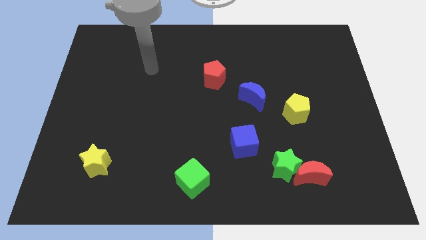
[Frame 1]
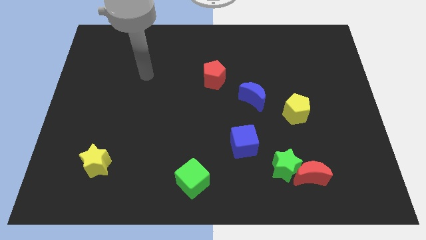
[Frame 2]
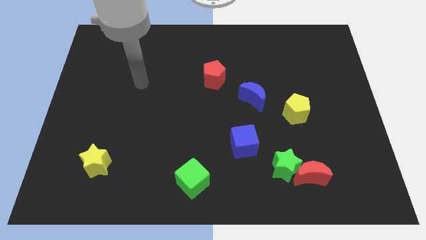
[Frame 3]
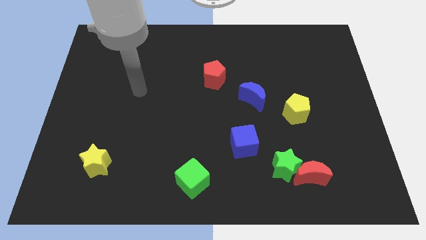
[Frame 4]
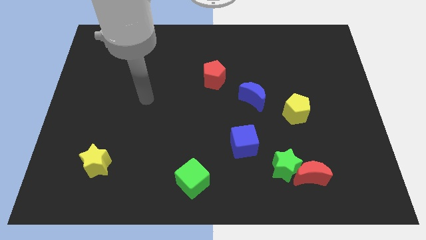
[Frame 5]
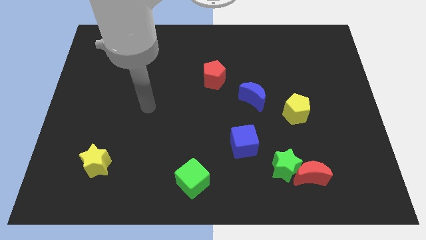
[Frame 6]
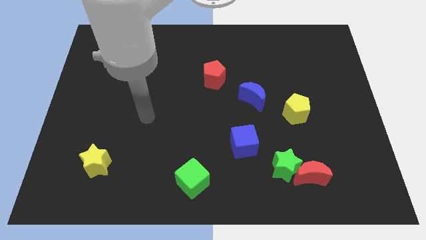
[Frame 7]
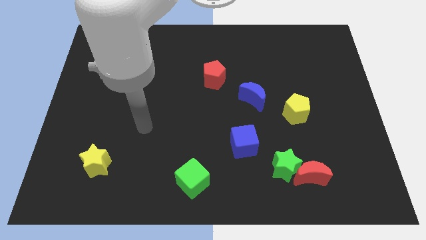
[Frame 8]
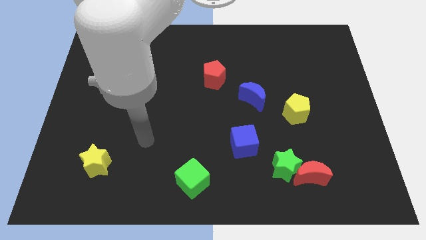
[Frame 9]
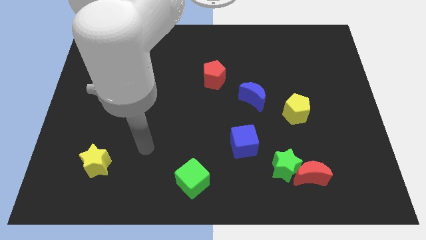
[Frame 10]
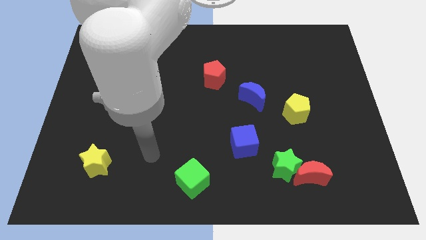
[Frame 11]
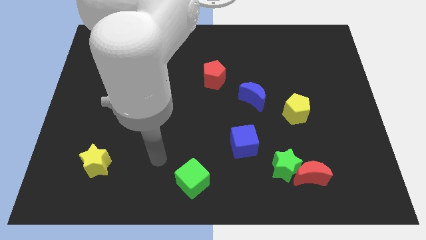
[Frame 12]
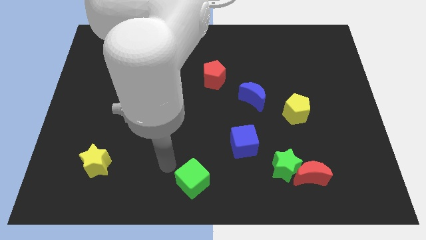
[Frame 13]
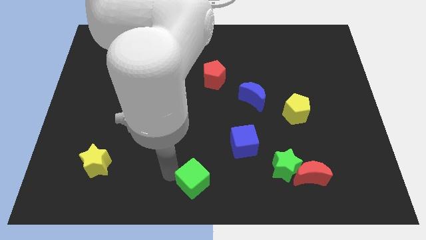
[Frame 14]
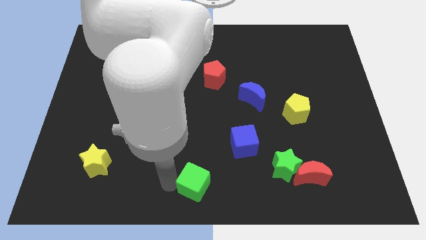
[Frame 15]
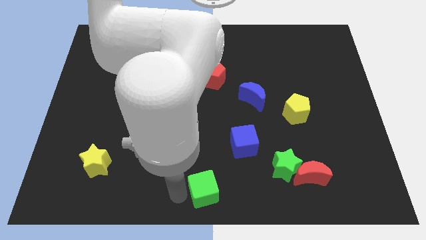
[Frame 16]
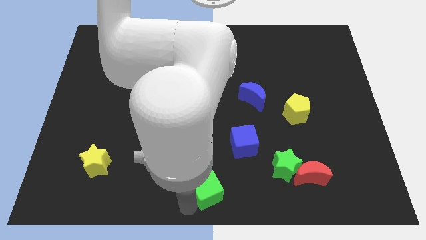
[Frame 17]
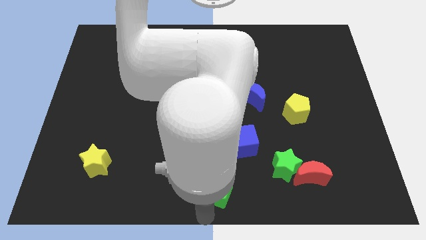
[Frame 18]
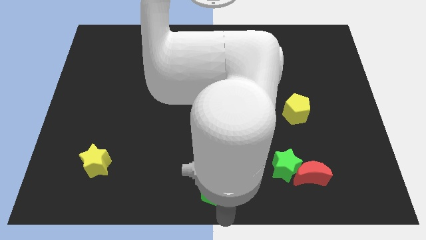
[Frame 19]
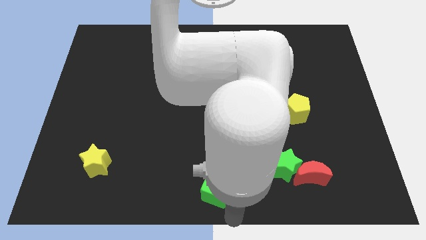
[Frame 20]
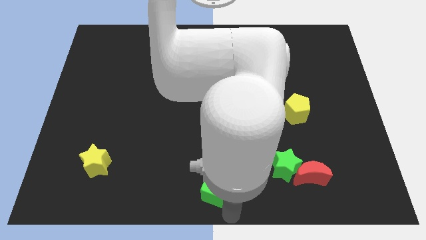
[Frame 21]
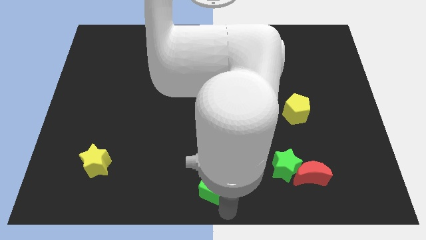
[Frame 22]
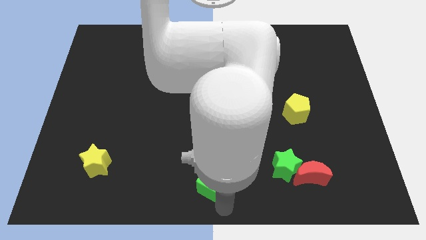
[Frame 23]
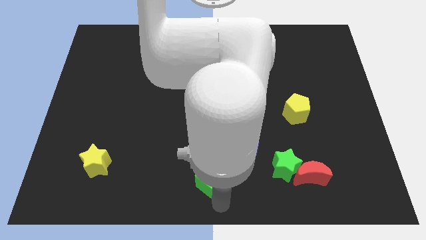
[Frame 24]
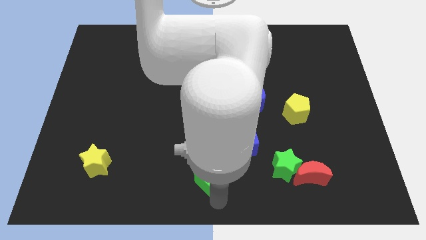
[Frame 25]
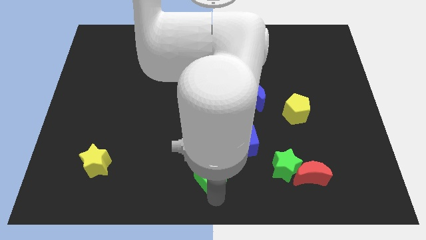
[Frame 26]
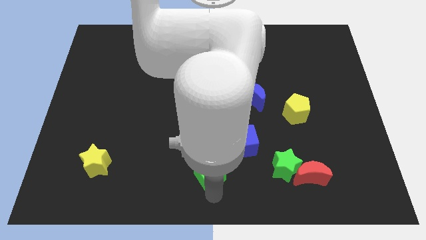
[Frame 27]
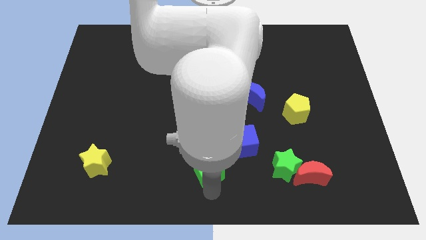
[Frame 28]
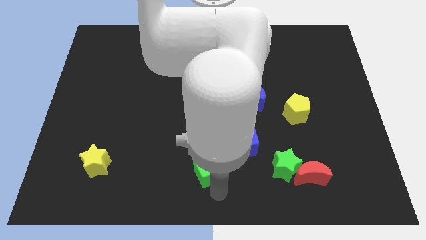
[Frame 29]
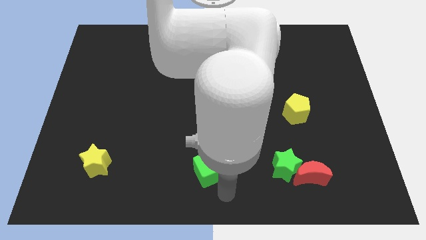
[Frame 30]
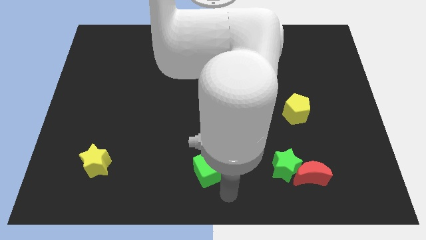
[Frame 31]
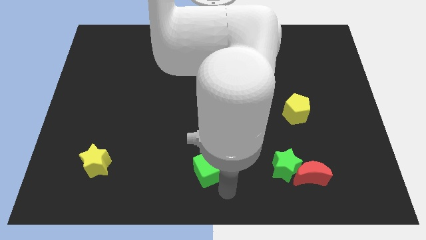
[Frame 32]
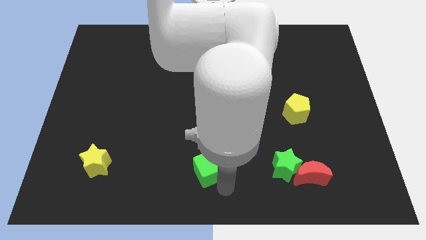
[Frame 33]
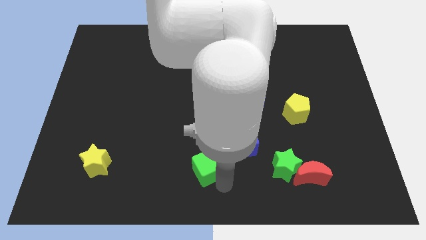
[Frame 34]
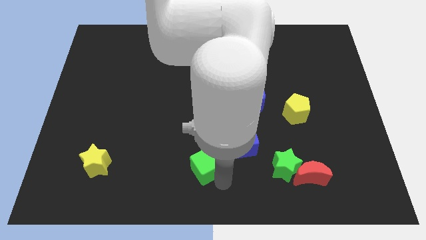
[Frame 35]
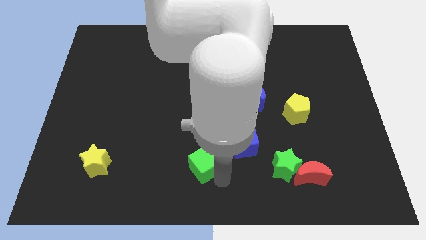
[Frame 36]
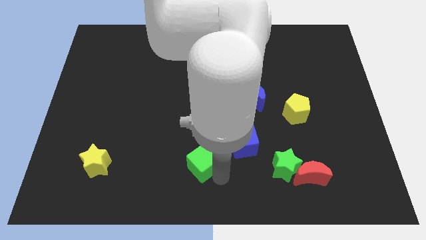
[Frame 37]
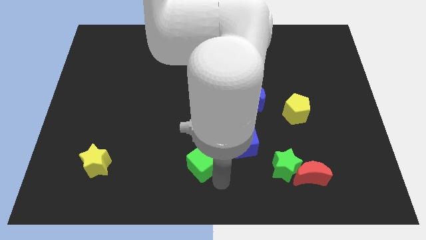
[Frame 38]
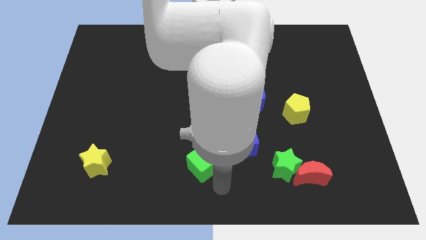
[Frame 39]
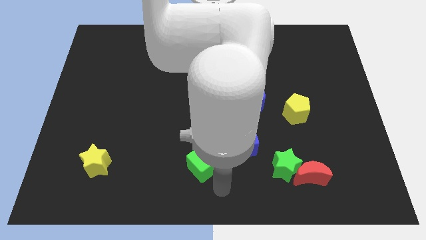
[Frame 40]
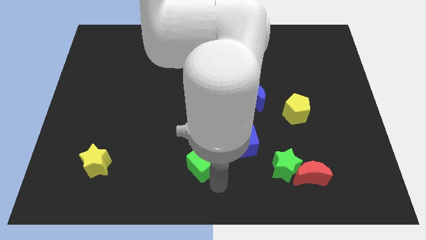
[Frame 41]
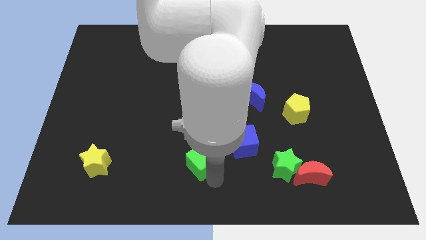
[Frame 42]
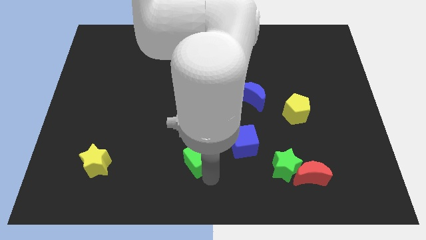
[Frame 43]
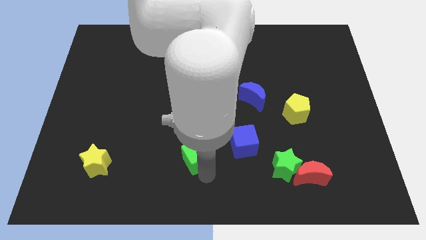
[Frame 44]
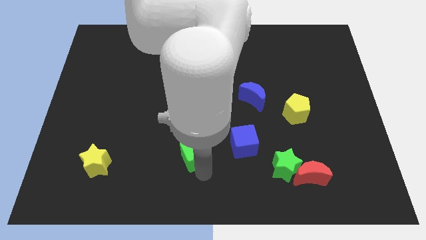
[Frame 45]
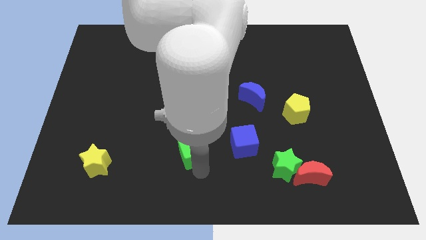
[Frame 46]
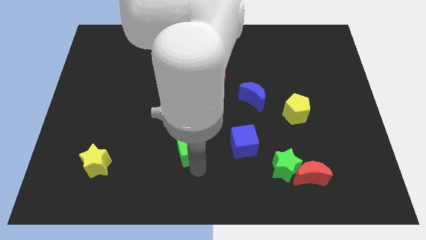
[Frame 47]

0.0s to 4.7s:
push the green cube upwards slightly

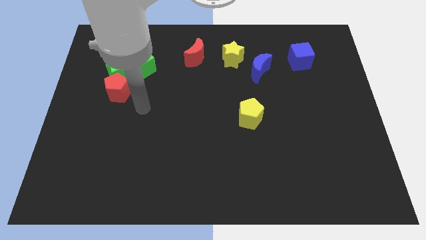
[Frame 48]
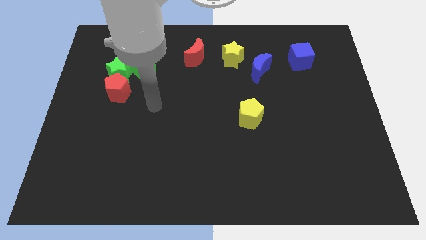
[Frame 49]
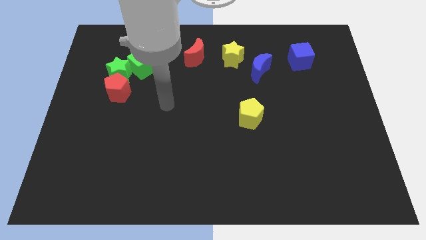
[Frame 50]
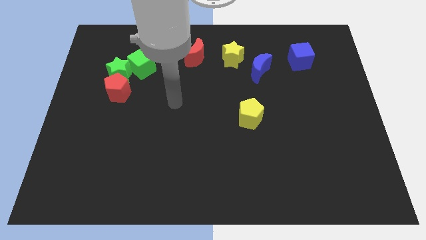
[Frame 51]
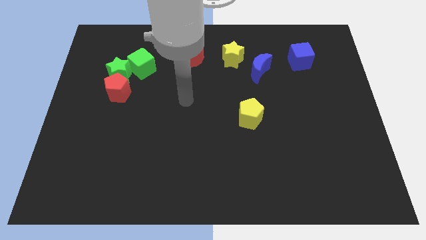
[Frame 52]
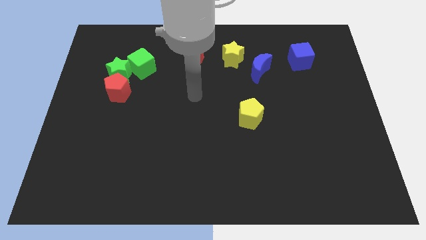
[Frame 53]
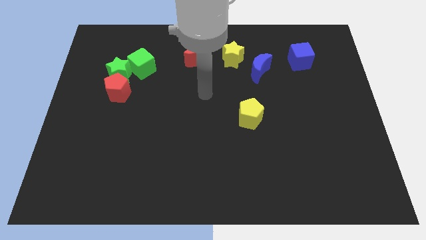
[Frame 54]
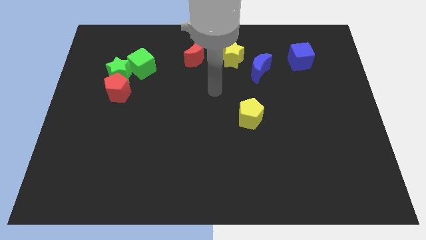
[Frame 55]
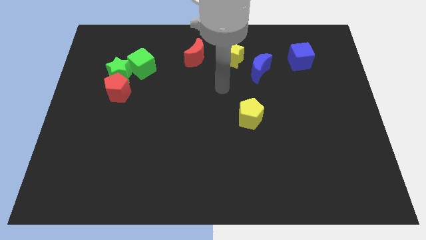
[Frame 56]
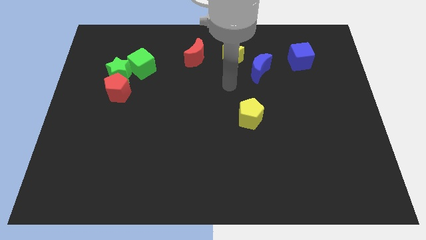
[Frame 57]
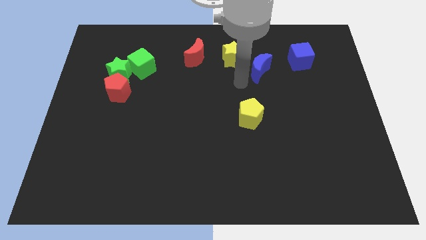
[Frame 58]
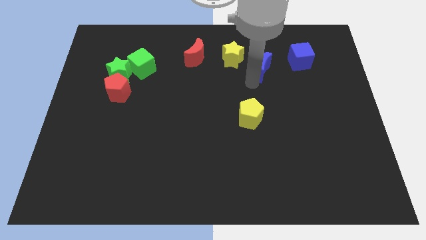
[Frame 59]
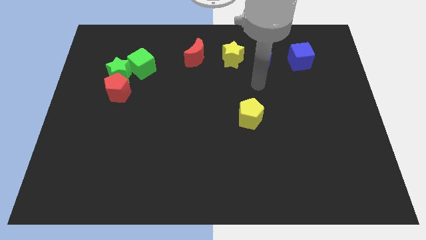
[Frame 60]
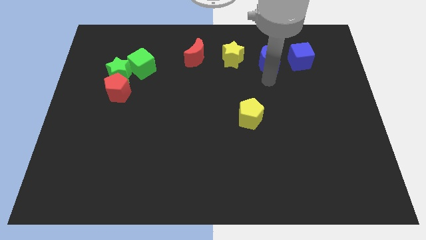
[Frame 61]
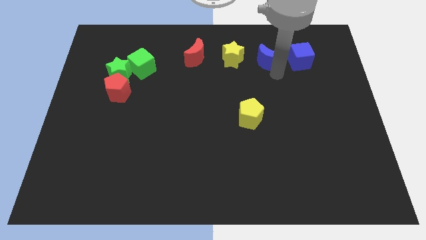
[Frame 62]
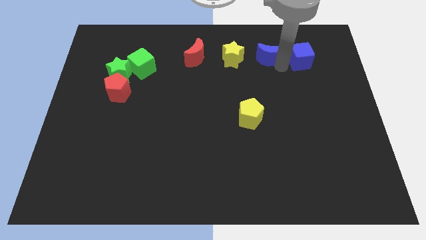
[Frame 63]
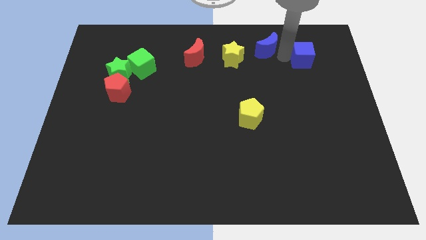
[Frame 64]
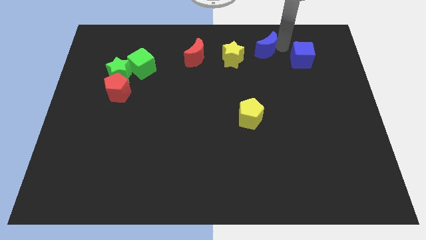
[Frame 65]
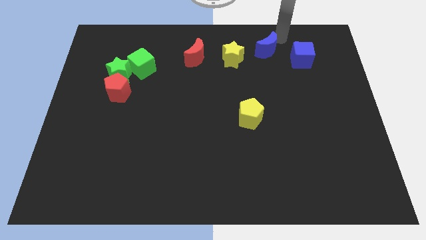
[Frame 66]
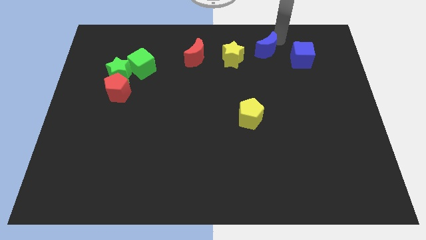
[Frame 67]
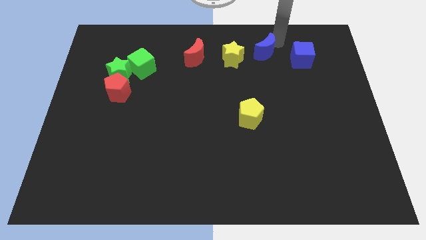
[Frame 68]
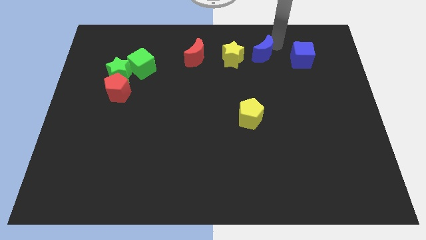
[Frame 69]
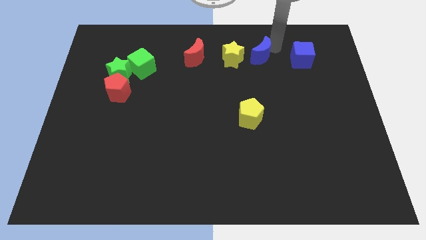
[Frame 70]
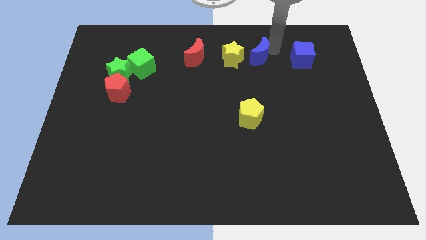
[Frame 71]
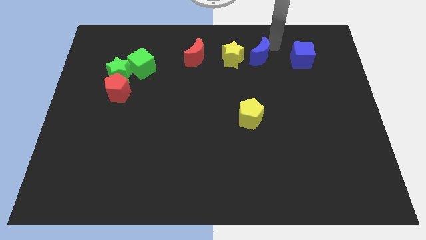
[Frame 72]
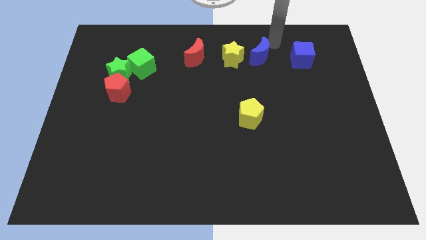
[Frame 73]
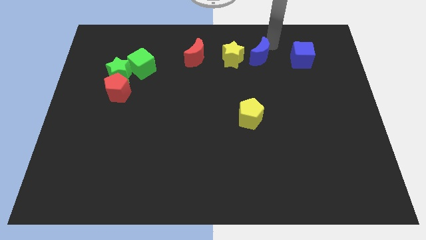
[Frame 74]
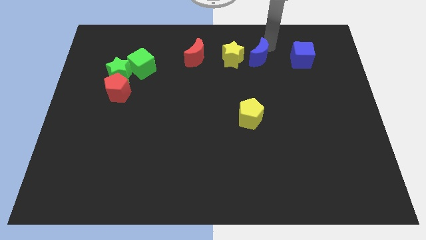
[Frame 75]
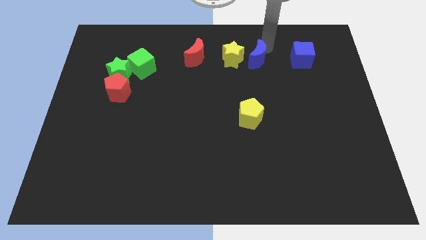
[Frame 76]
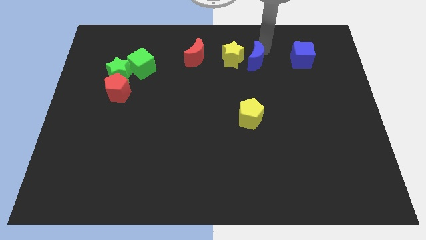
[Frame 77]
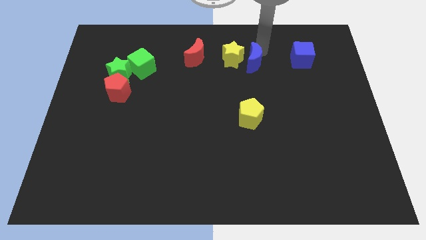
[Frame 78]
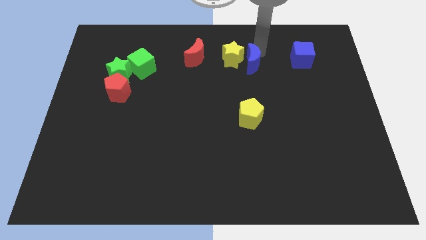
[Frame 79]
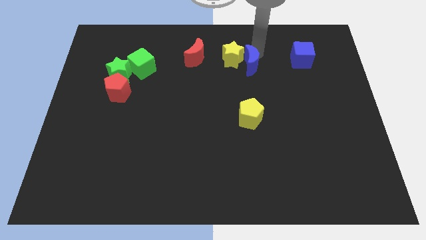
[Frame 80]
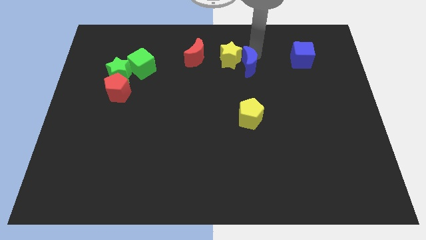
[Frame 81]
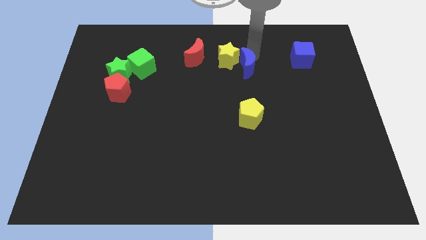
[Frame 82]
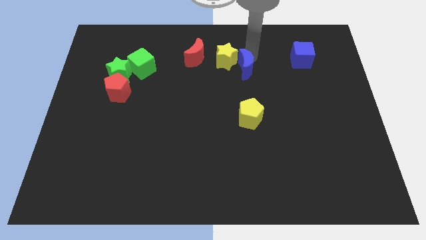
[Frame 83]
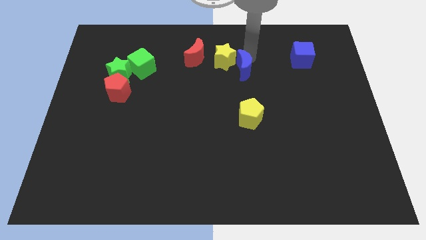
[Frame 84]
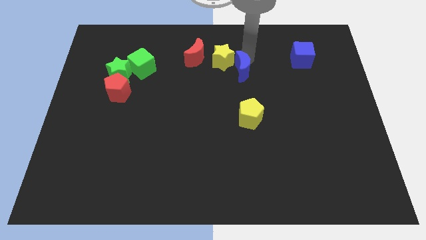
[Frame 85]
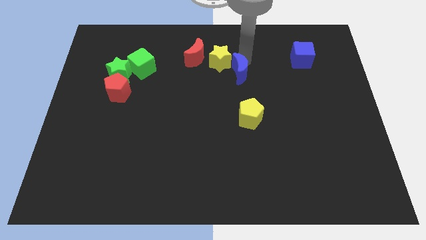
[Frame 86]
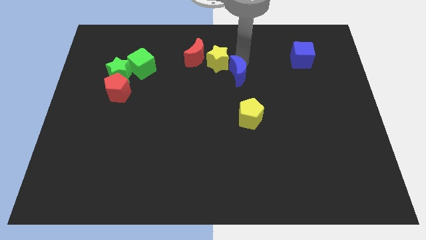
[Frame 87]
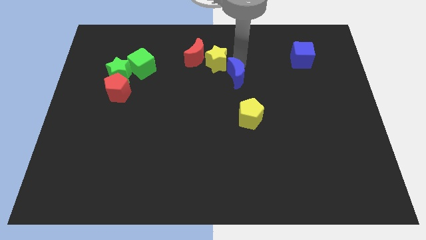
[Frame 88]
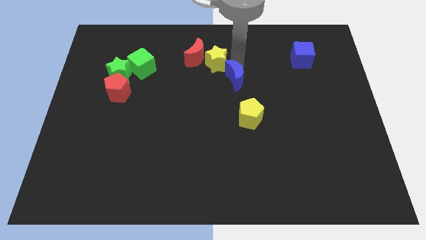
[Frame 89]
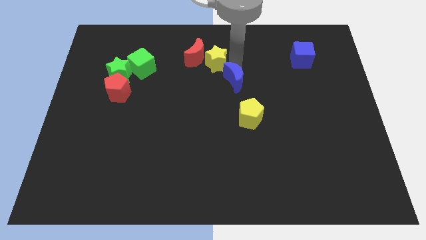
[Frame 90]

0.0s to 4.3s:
slide the blue moon downwards and left a bit
